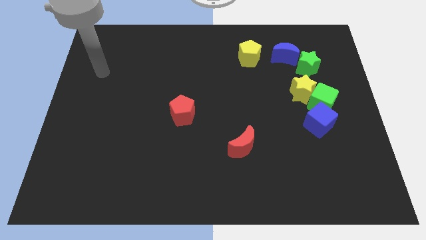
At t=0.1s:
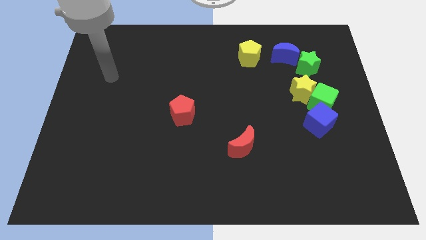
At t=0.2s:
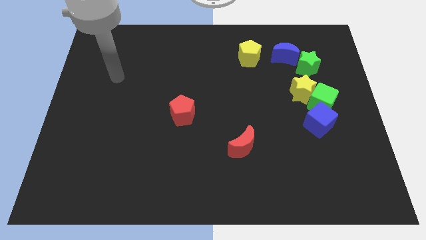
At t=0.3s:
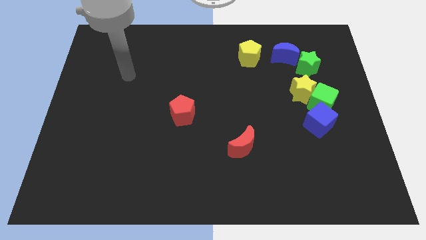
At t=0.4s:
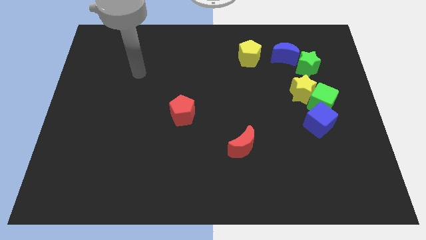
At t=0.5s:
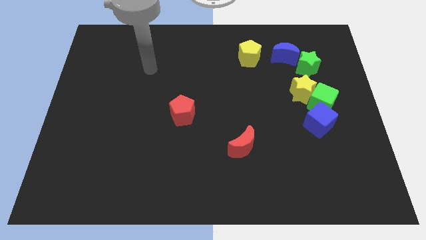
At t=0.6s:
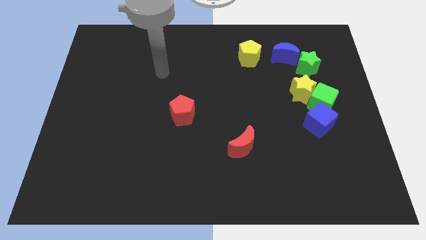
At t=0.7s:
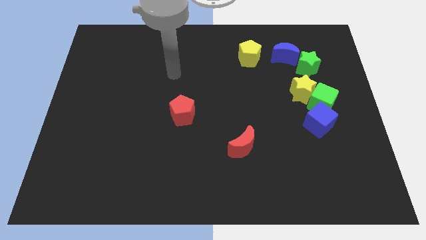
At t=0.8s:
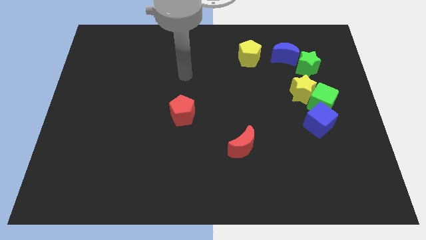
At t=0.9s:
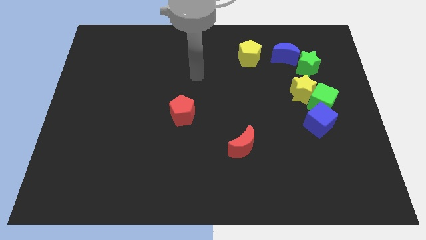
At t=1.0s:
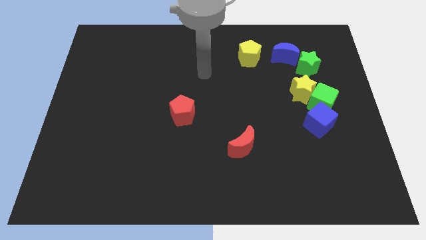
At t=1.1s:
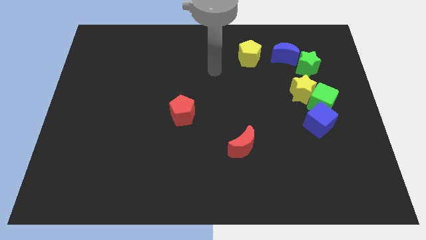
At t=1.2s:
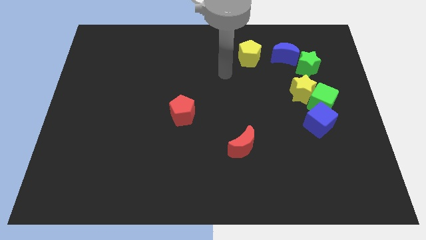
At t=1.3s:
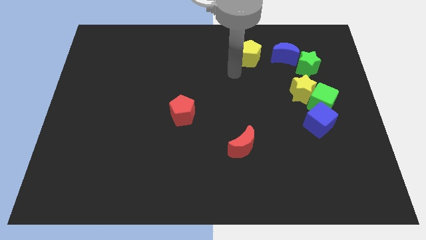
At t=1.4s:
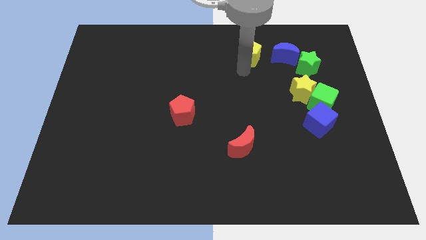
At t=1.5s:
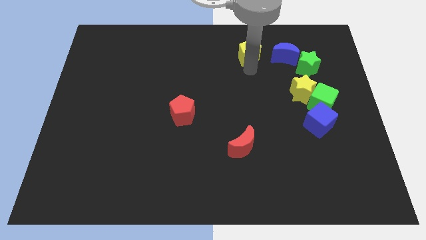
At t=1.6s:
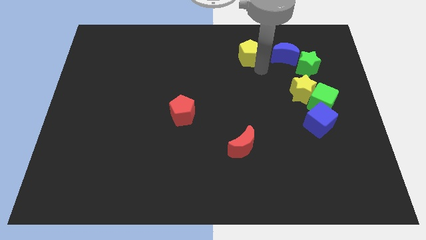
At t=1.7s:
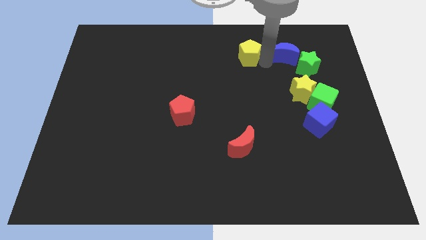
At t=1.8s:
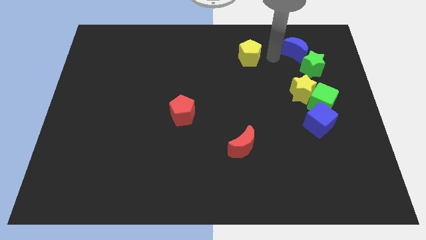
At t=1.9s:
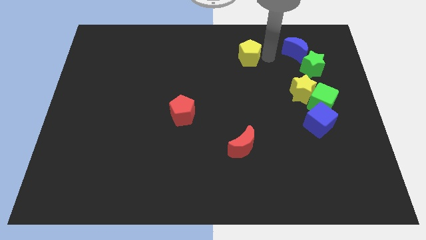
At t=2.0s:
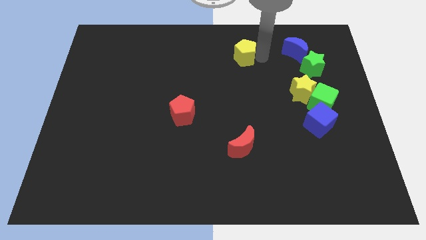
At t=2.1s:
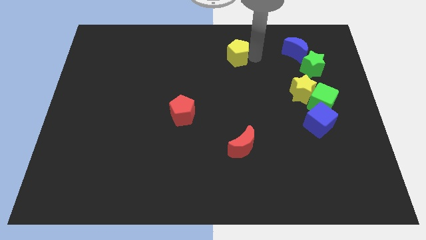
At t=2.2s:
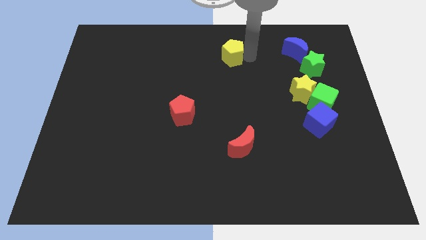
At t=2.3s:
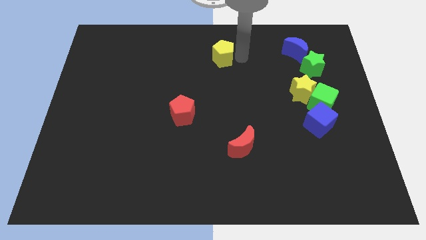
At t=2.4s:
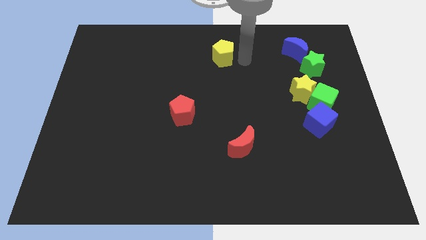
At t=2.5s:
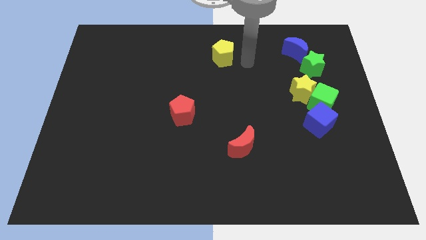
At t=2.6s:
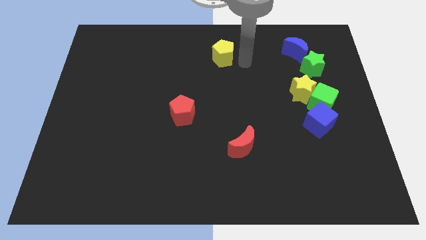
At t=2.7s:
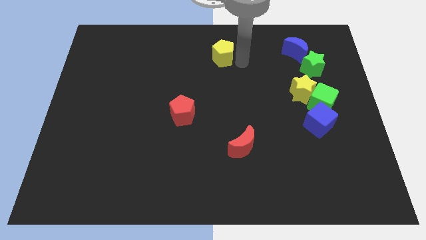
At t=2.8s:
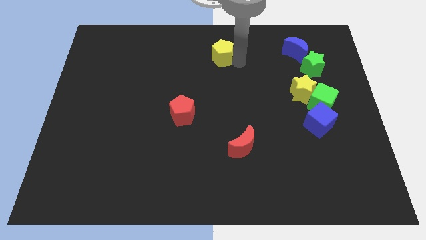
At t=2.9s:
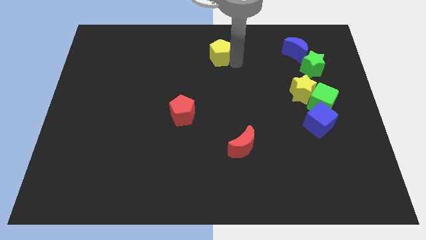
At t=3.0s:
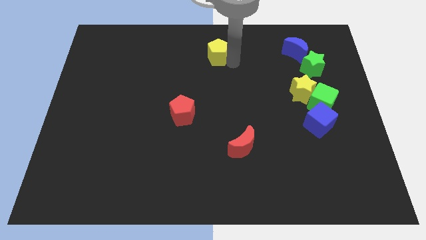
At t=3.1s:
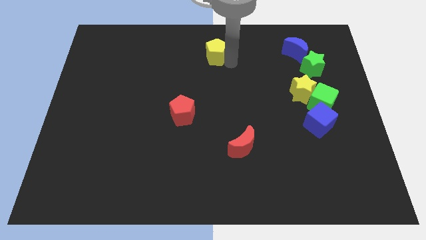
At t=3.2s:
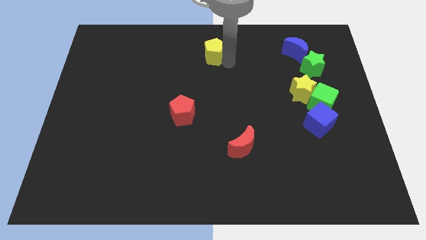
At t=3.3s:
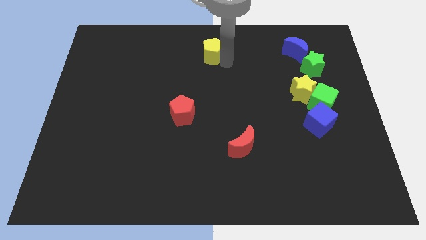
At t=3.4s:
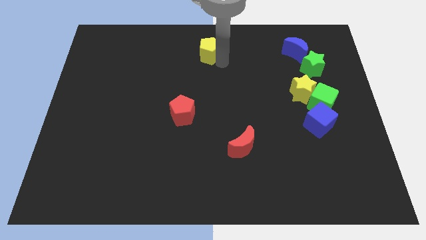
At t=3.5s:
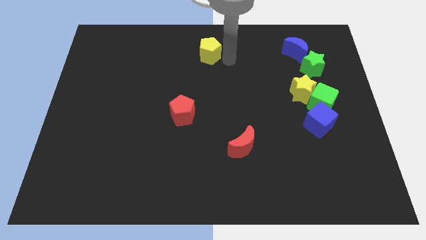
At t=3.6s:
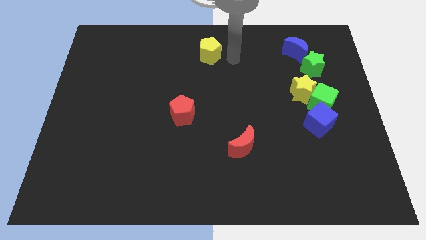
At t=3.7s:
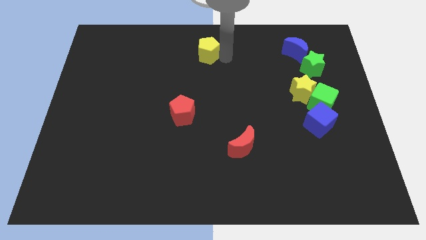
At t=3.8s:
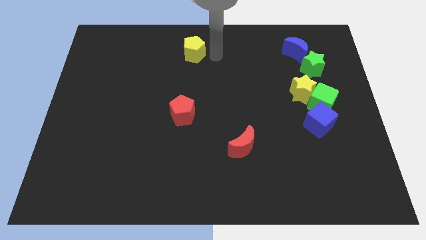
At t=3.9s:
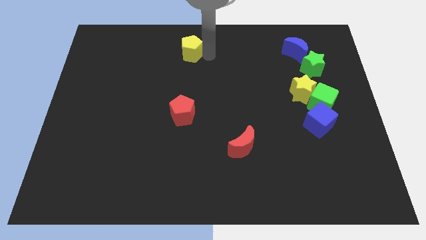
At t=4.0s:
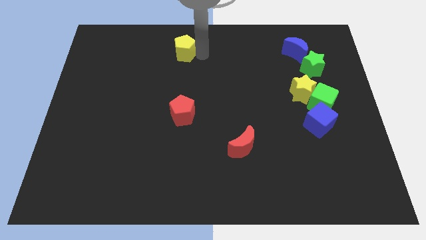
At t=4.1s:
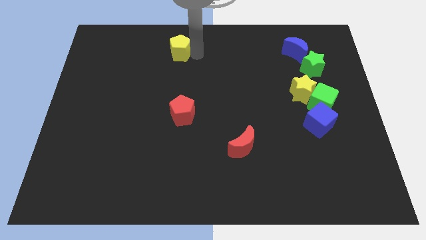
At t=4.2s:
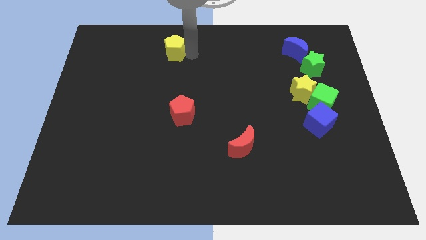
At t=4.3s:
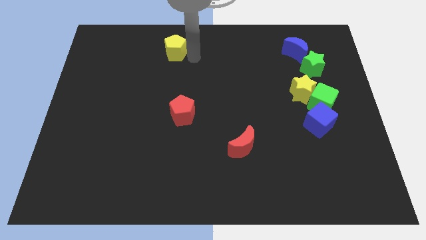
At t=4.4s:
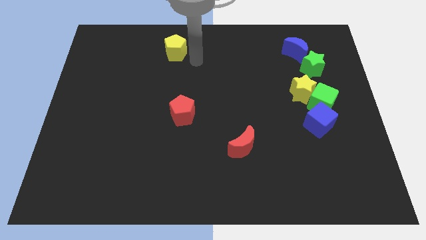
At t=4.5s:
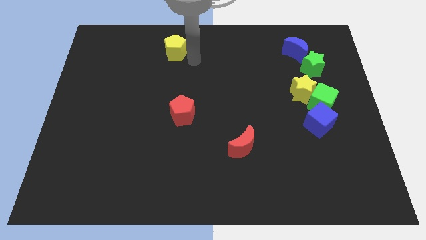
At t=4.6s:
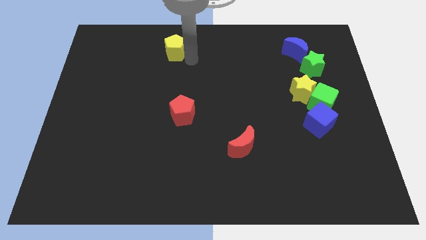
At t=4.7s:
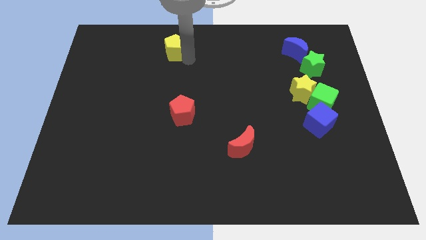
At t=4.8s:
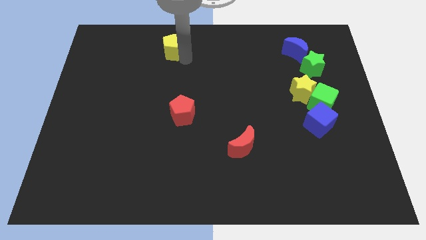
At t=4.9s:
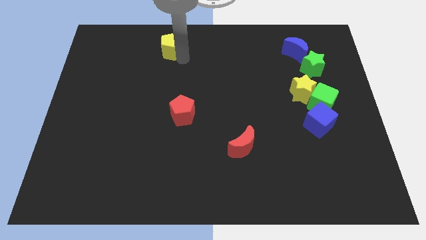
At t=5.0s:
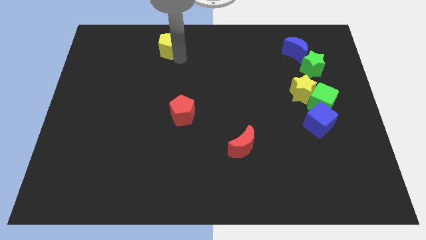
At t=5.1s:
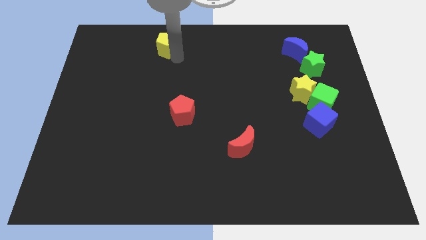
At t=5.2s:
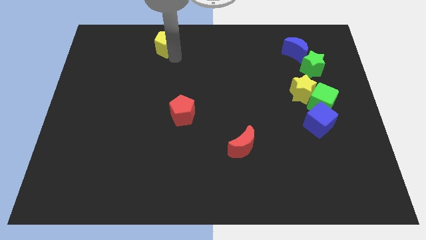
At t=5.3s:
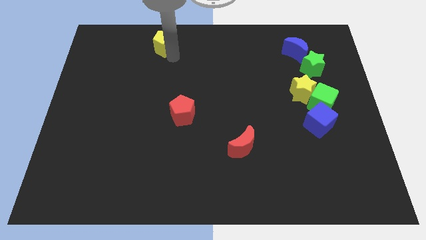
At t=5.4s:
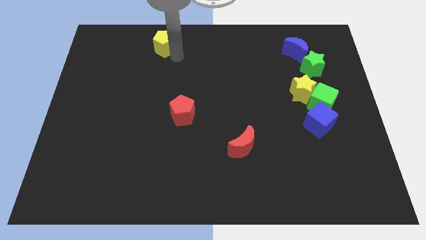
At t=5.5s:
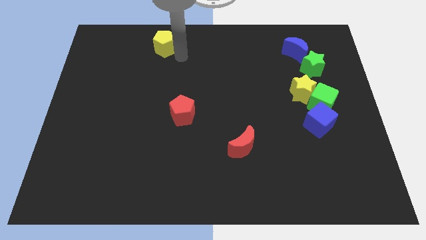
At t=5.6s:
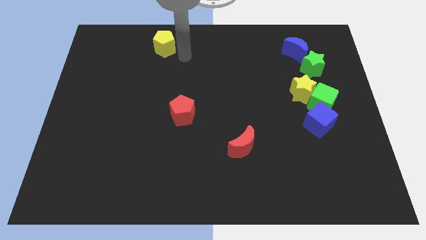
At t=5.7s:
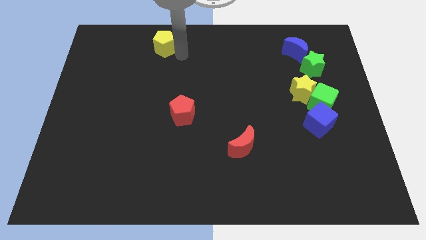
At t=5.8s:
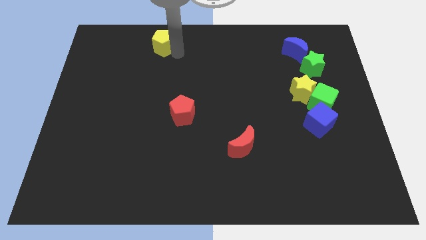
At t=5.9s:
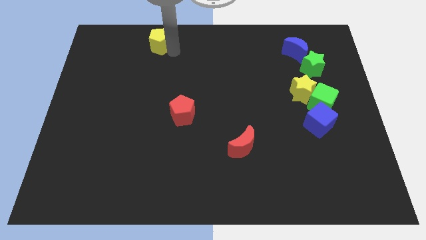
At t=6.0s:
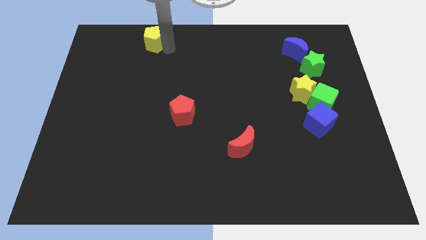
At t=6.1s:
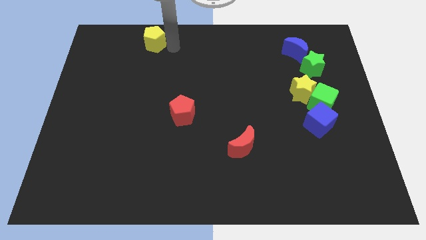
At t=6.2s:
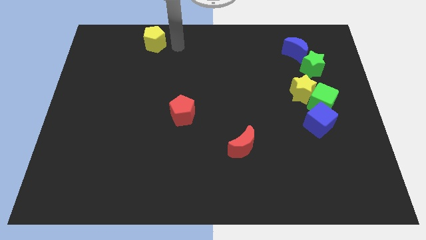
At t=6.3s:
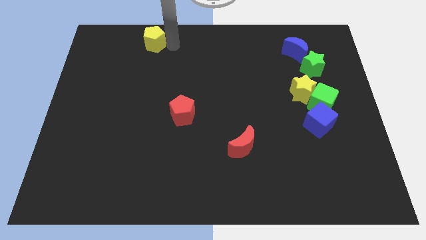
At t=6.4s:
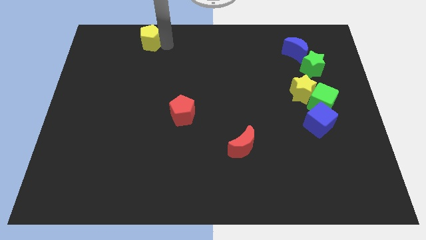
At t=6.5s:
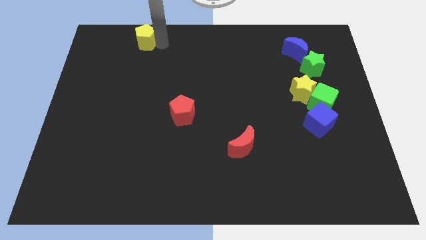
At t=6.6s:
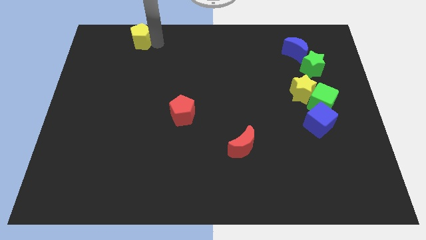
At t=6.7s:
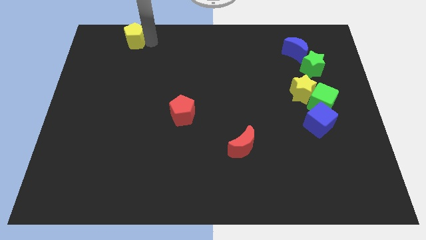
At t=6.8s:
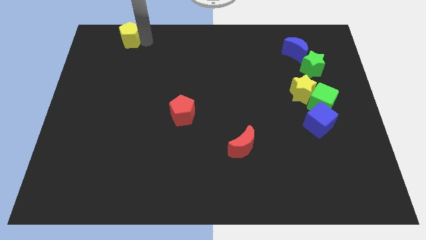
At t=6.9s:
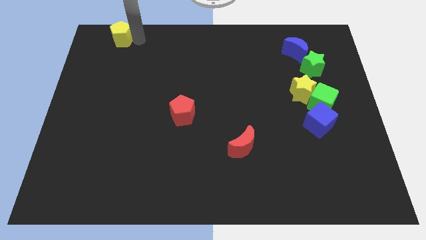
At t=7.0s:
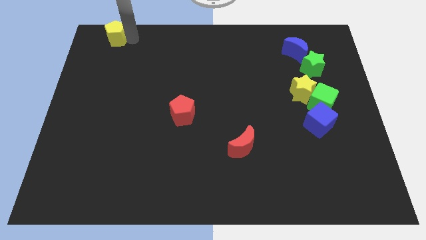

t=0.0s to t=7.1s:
push the yellow pentagon to the top left of the board
